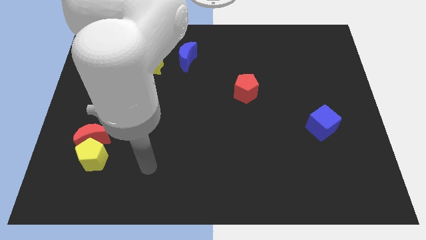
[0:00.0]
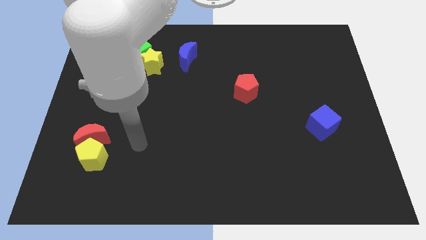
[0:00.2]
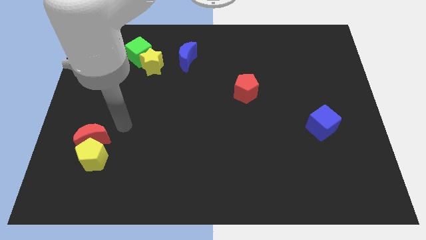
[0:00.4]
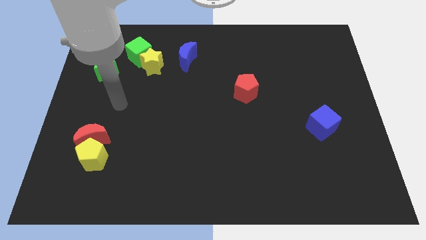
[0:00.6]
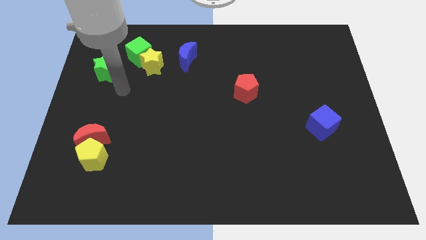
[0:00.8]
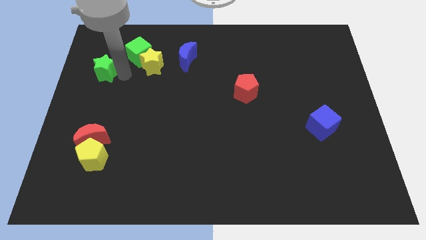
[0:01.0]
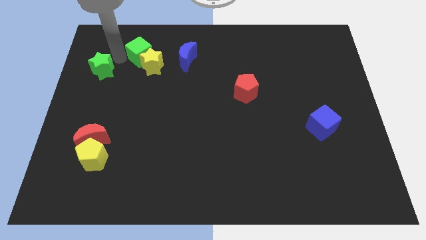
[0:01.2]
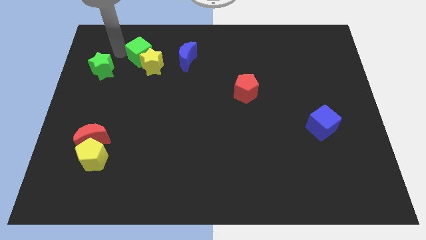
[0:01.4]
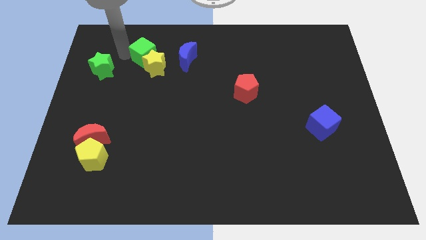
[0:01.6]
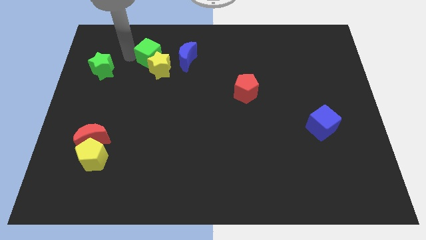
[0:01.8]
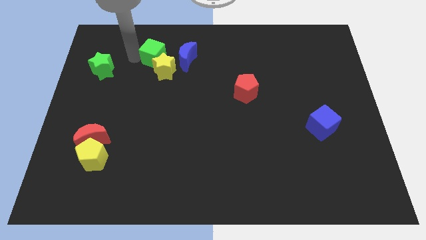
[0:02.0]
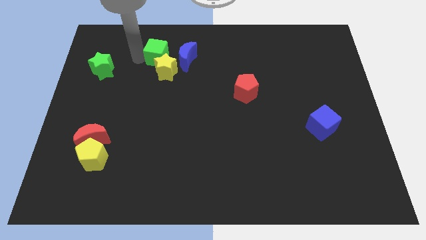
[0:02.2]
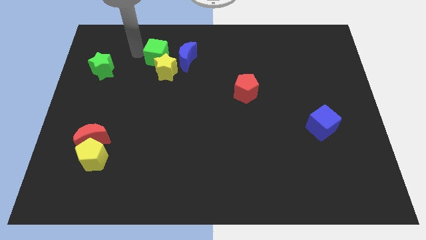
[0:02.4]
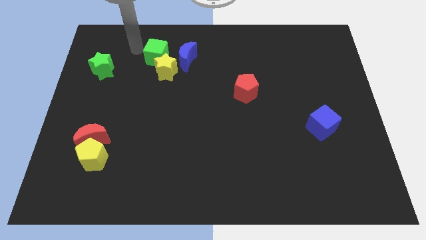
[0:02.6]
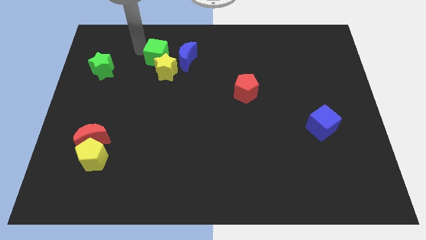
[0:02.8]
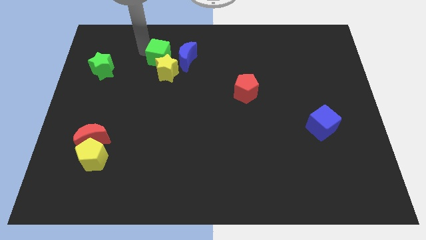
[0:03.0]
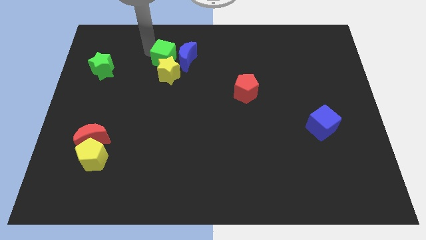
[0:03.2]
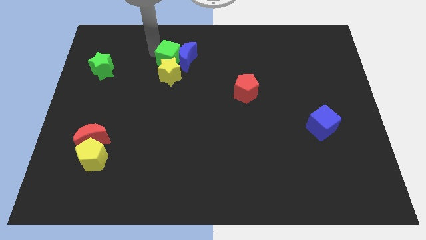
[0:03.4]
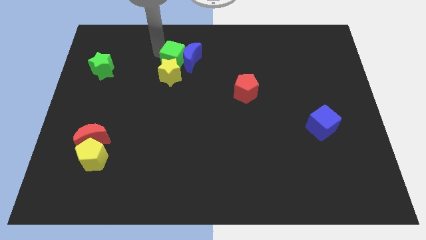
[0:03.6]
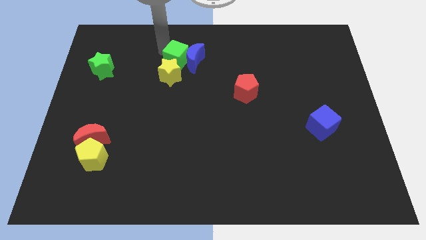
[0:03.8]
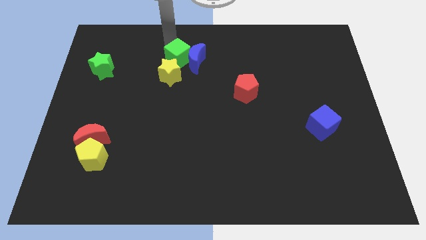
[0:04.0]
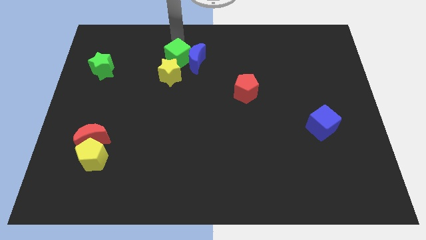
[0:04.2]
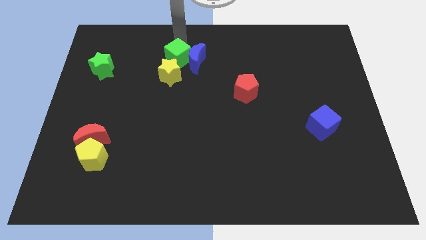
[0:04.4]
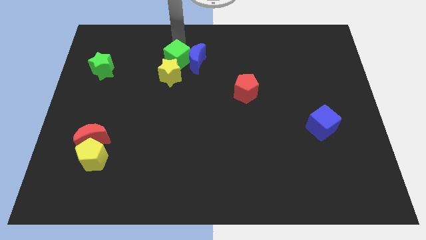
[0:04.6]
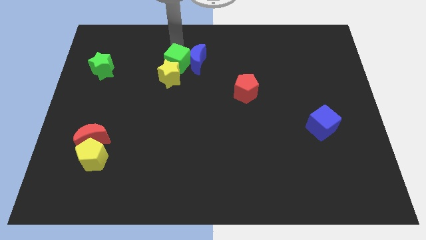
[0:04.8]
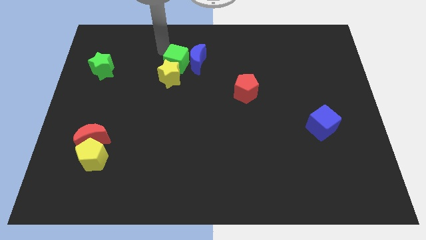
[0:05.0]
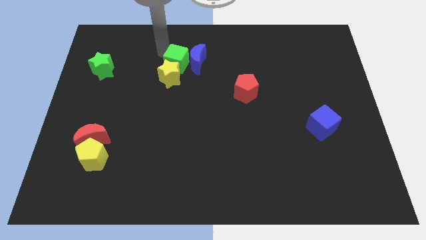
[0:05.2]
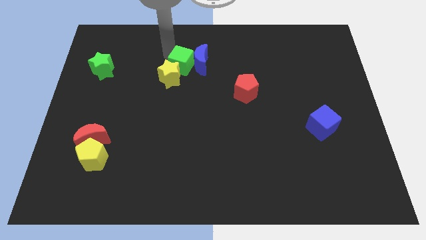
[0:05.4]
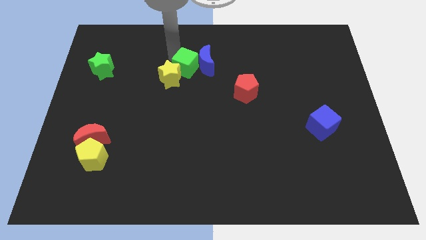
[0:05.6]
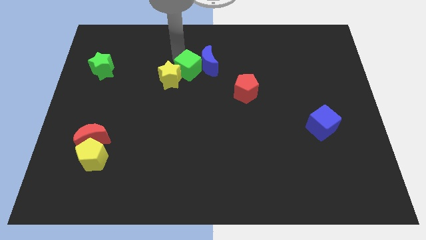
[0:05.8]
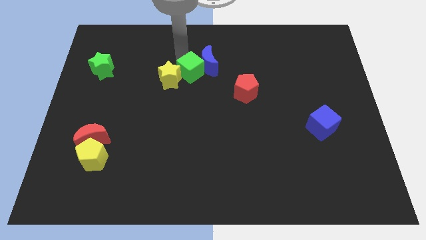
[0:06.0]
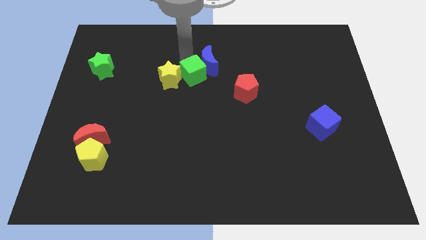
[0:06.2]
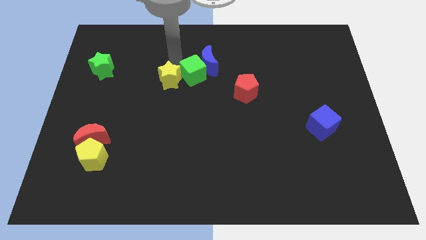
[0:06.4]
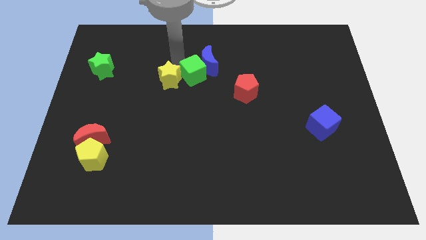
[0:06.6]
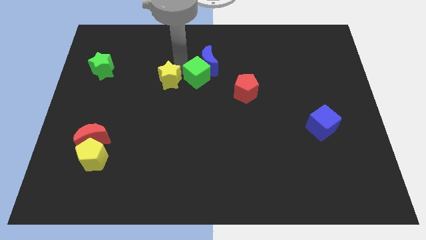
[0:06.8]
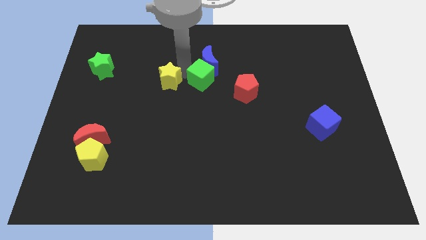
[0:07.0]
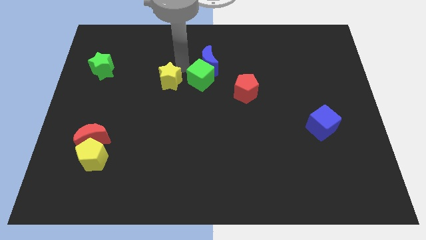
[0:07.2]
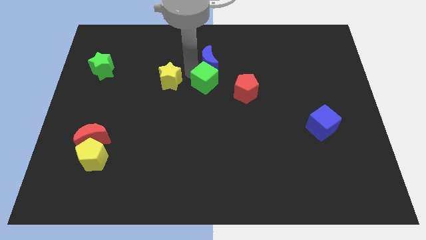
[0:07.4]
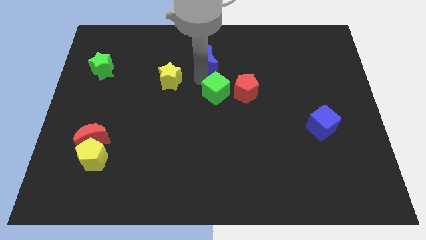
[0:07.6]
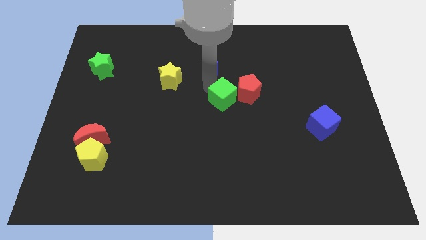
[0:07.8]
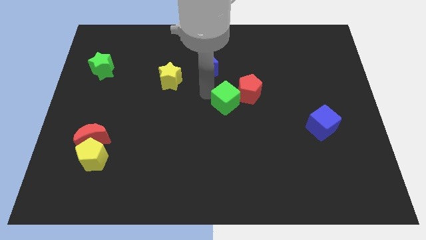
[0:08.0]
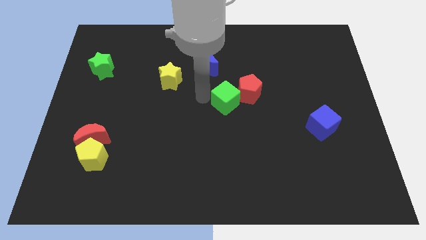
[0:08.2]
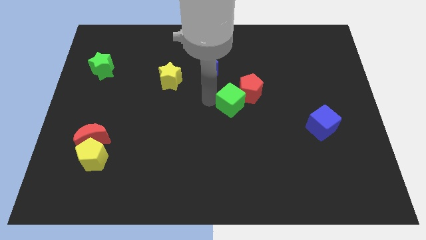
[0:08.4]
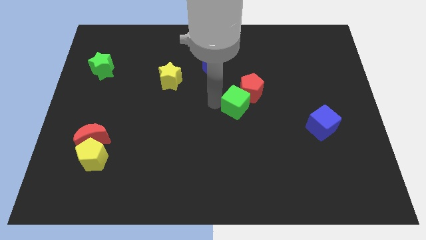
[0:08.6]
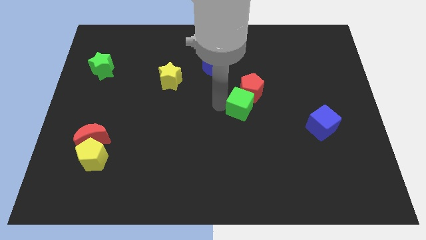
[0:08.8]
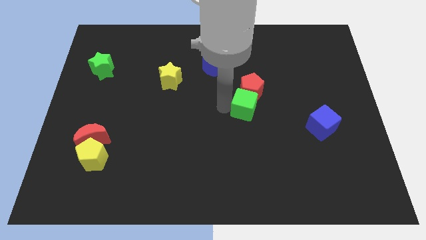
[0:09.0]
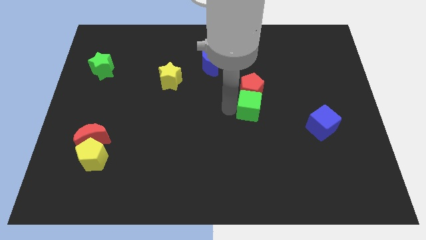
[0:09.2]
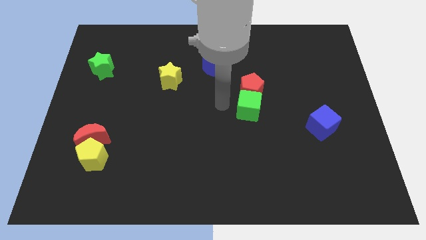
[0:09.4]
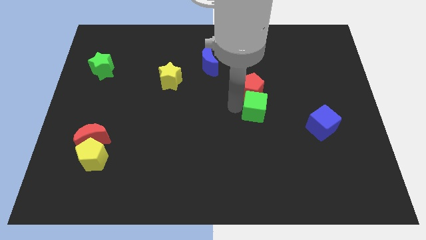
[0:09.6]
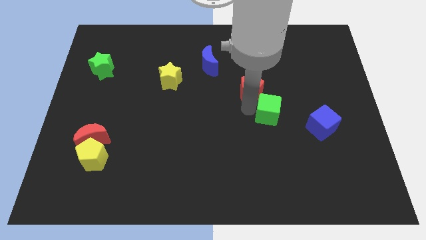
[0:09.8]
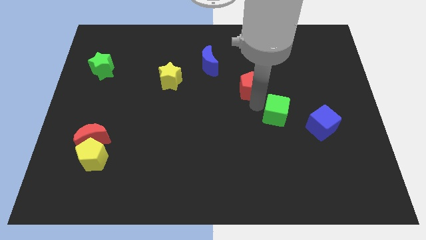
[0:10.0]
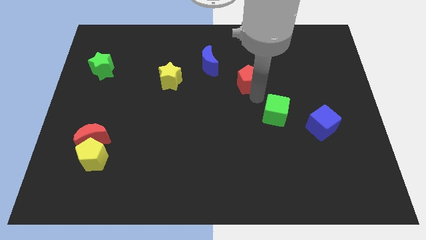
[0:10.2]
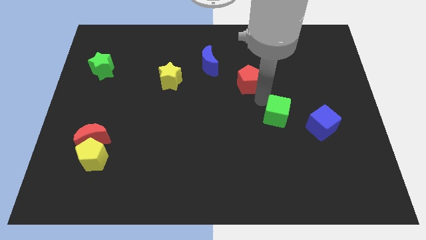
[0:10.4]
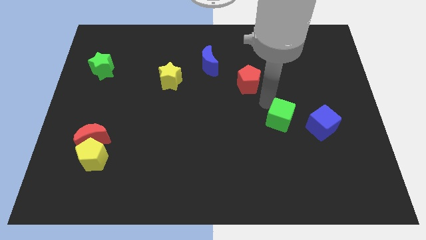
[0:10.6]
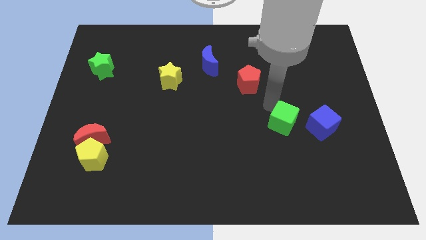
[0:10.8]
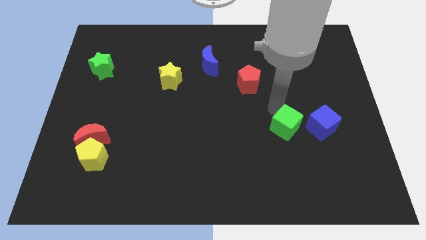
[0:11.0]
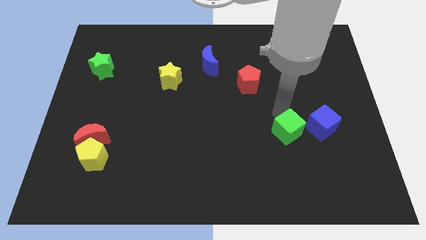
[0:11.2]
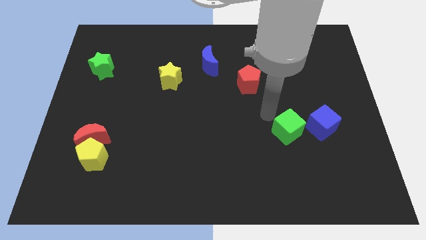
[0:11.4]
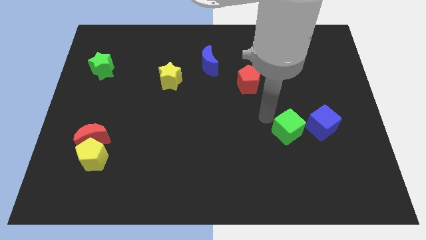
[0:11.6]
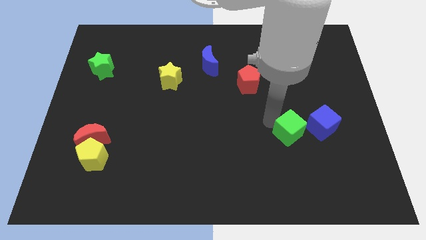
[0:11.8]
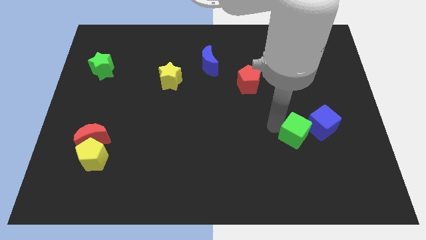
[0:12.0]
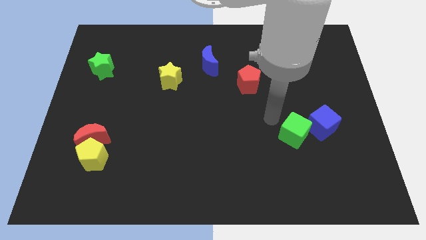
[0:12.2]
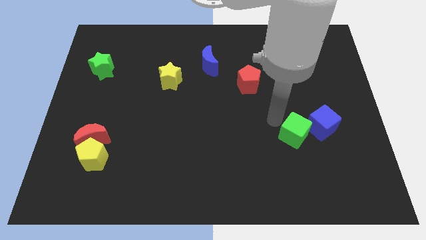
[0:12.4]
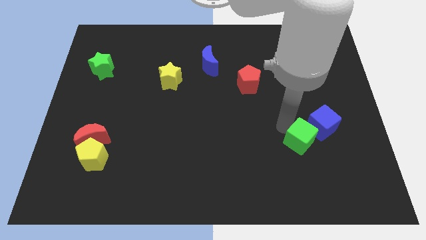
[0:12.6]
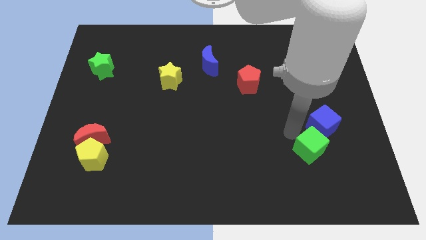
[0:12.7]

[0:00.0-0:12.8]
push the green cube below the blue cube

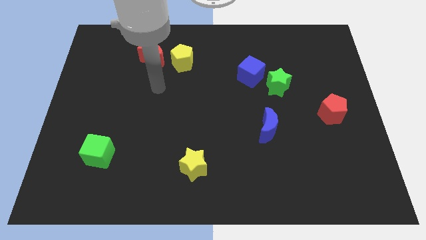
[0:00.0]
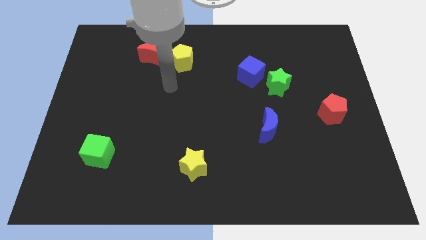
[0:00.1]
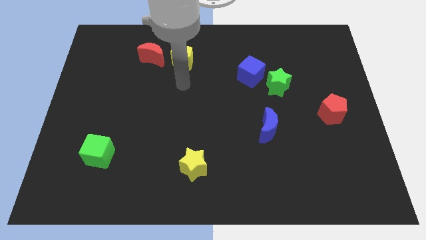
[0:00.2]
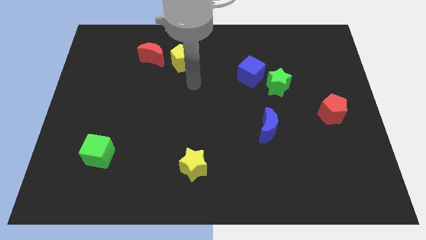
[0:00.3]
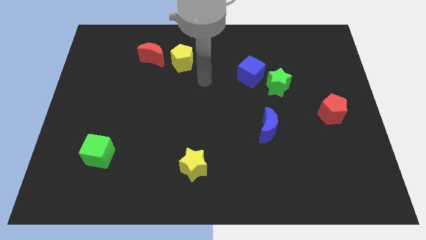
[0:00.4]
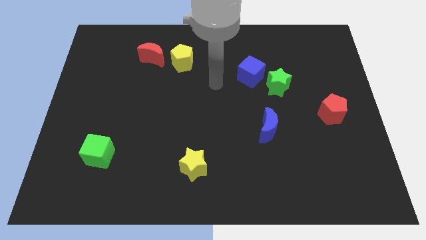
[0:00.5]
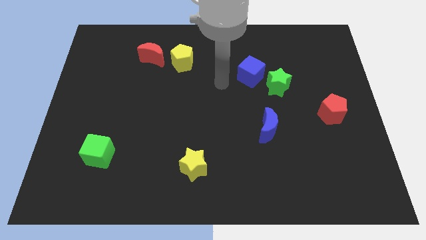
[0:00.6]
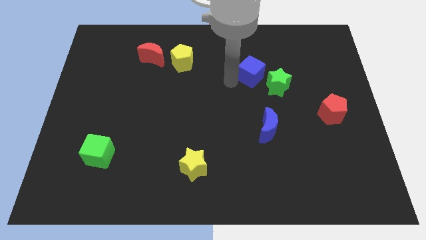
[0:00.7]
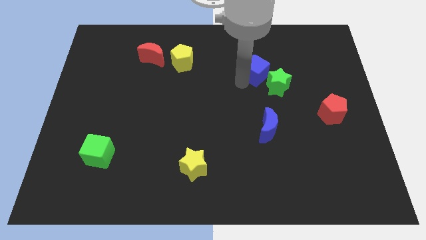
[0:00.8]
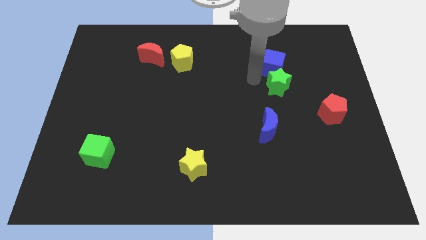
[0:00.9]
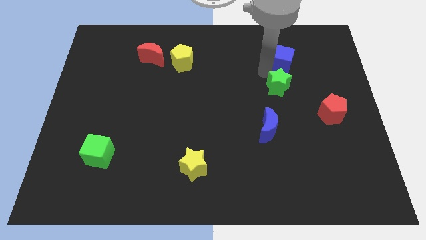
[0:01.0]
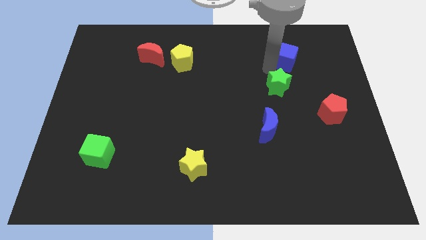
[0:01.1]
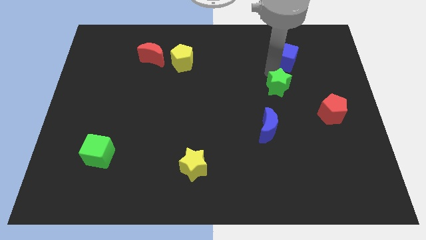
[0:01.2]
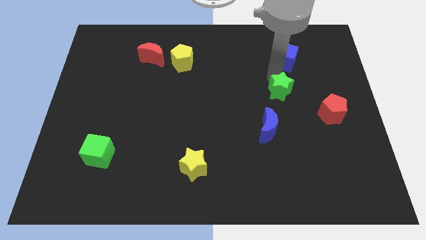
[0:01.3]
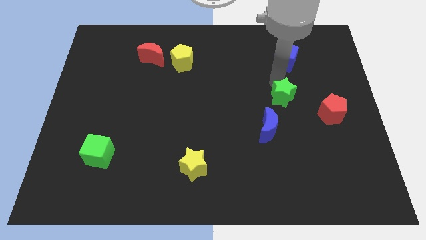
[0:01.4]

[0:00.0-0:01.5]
move the green star to the top right side of the blue moon
